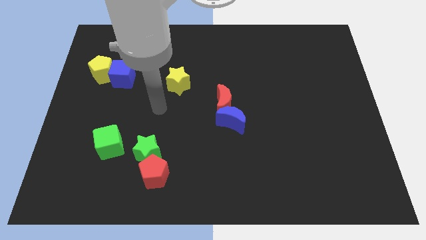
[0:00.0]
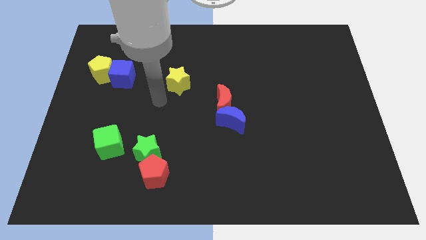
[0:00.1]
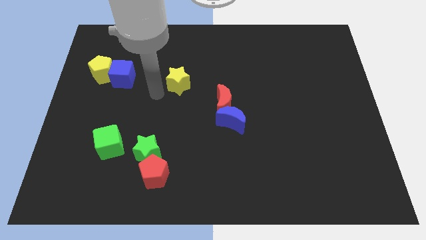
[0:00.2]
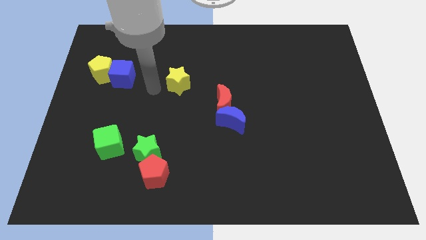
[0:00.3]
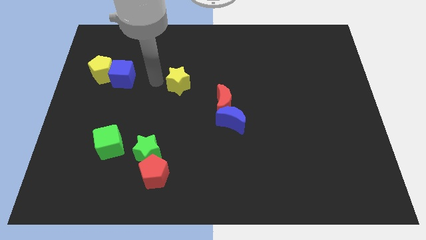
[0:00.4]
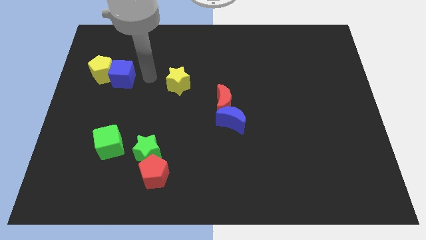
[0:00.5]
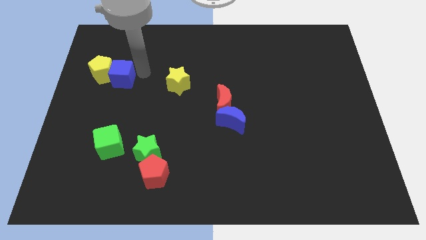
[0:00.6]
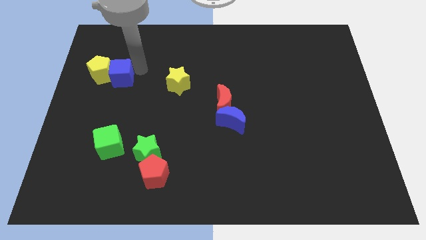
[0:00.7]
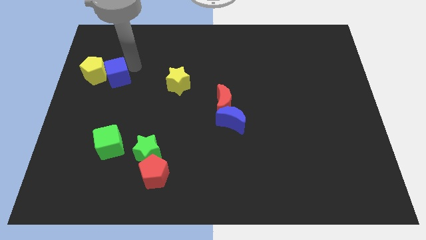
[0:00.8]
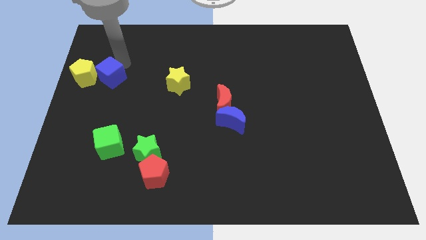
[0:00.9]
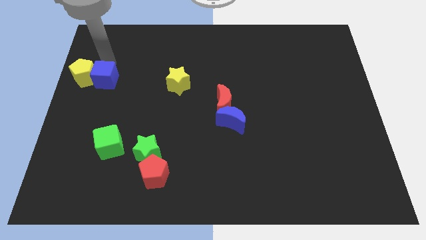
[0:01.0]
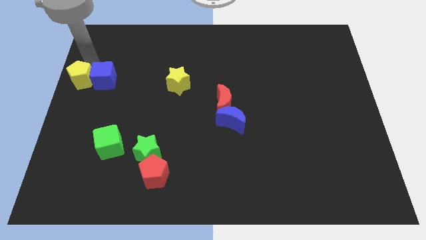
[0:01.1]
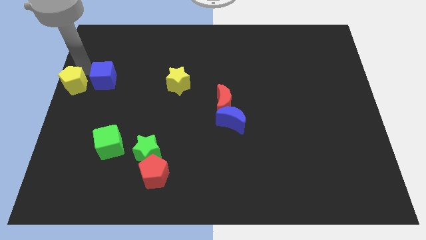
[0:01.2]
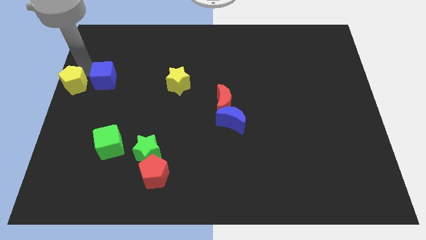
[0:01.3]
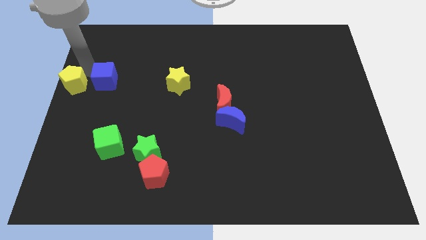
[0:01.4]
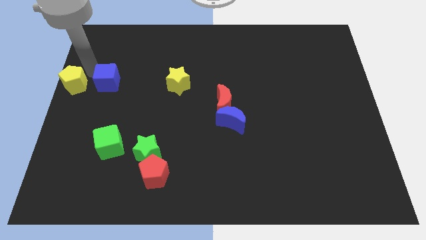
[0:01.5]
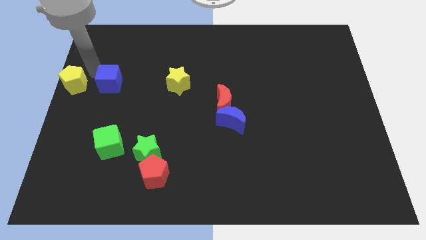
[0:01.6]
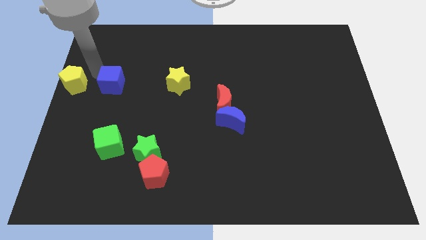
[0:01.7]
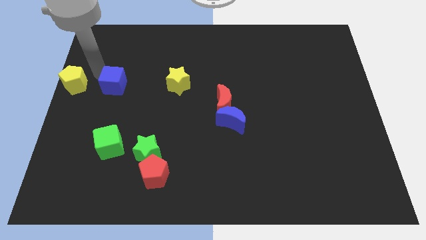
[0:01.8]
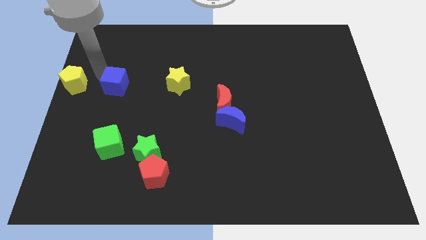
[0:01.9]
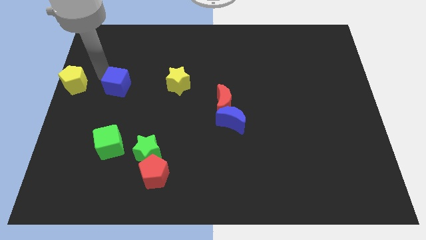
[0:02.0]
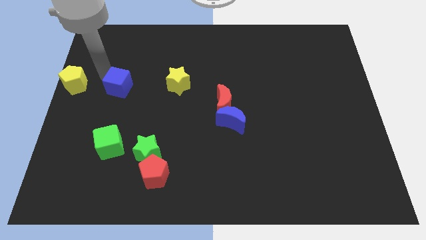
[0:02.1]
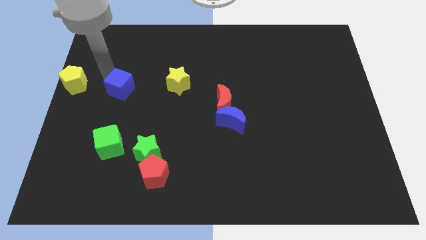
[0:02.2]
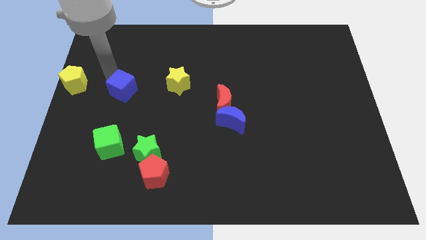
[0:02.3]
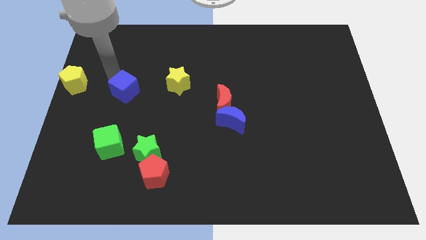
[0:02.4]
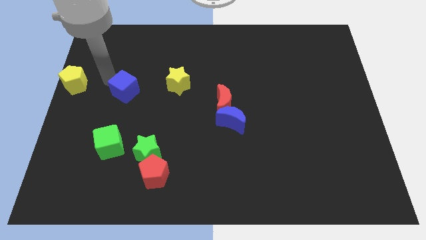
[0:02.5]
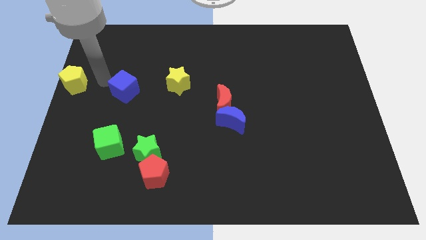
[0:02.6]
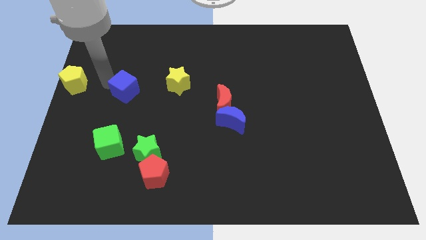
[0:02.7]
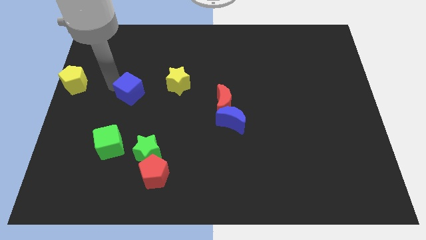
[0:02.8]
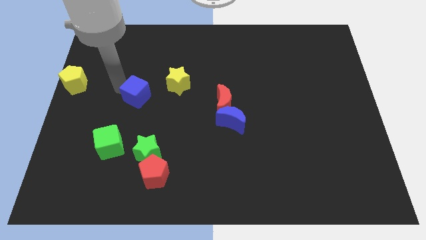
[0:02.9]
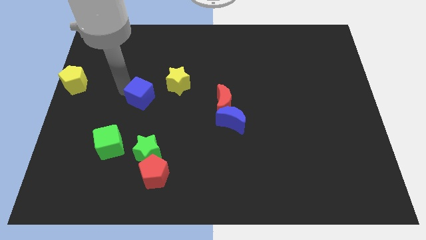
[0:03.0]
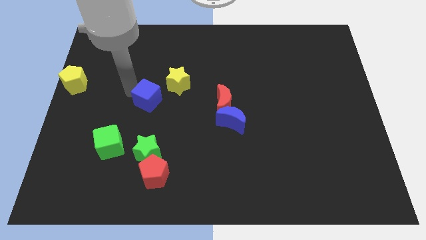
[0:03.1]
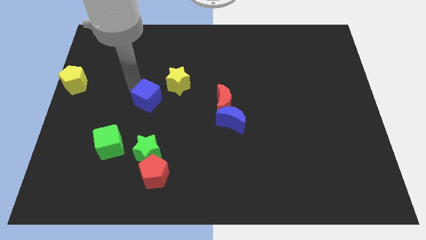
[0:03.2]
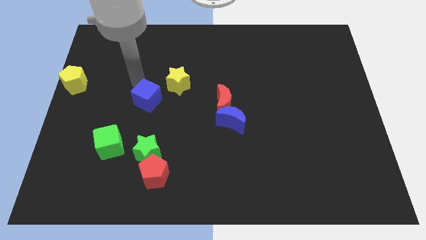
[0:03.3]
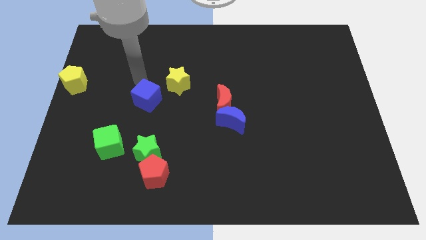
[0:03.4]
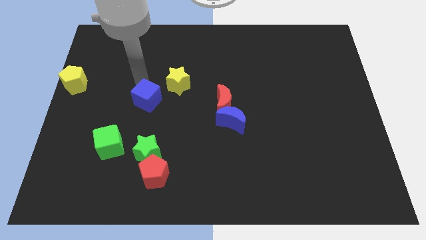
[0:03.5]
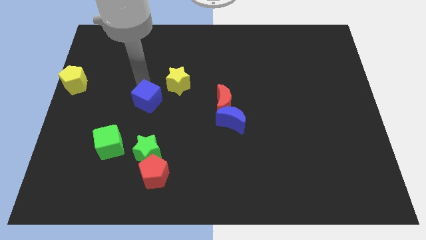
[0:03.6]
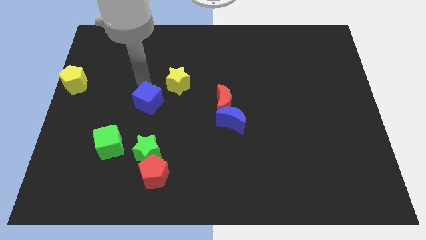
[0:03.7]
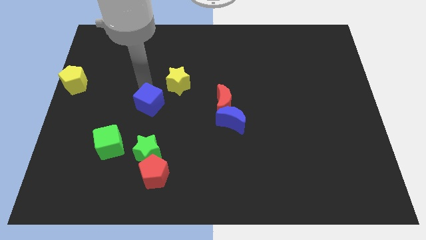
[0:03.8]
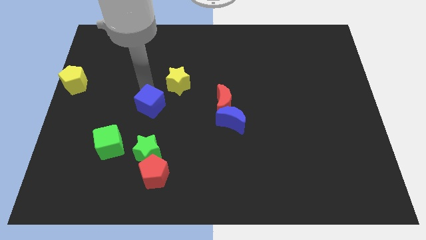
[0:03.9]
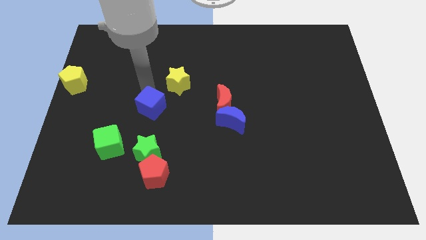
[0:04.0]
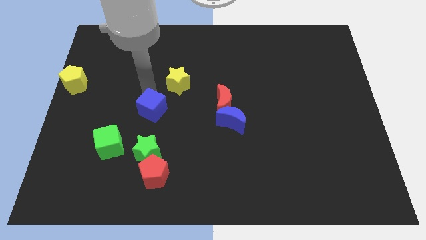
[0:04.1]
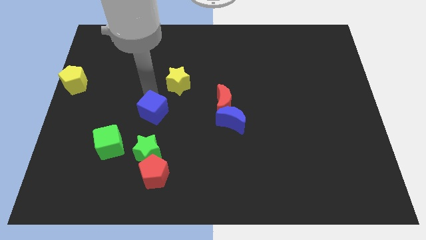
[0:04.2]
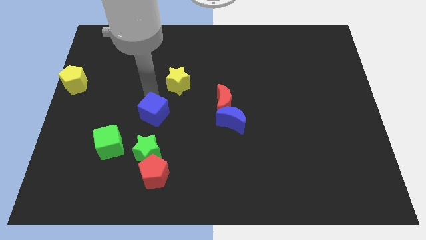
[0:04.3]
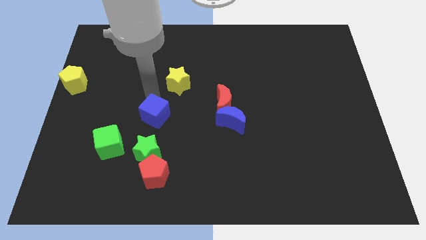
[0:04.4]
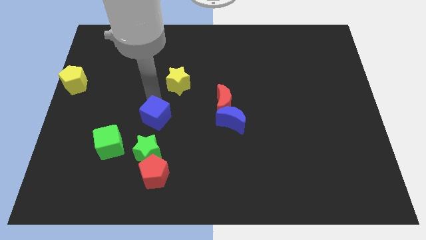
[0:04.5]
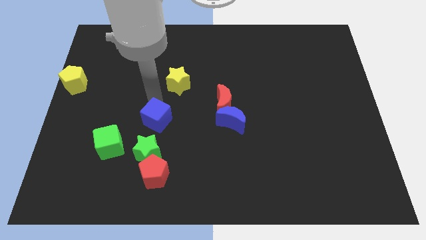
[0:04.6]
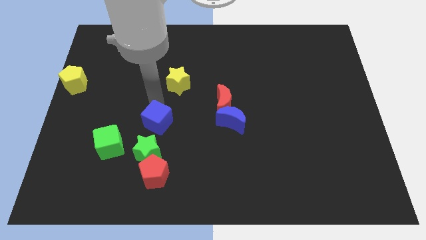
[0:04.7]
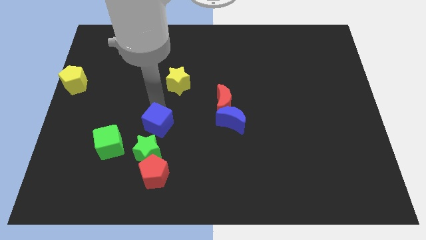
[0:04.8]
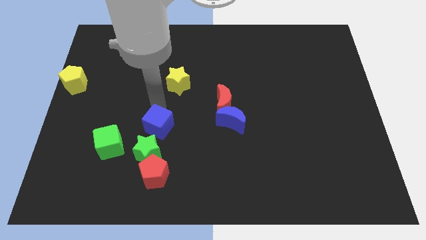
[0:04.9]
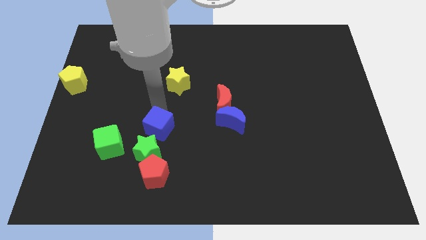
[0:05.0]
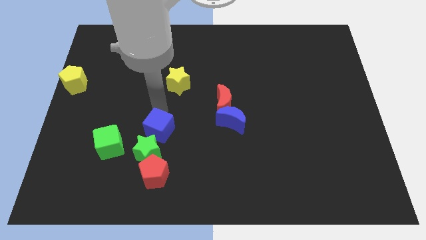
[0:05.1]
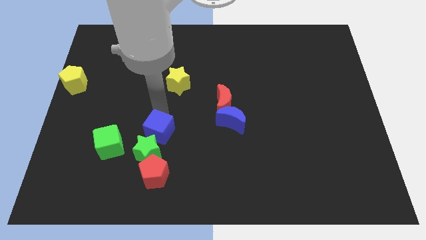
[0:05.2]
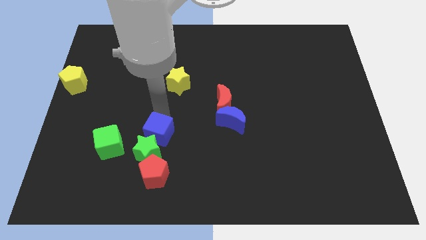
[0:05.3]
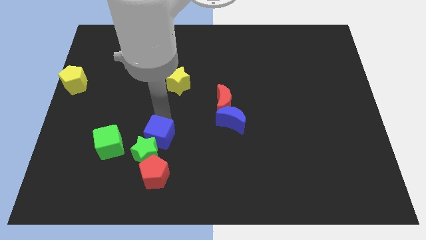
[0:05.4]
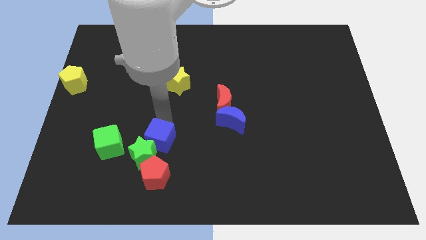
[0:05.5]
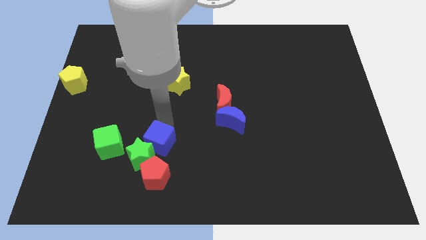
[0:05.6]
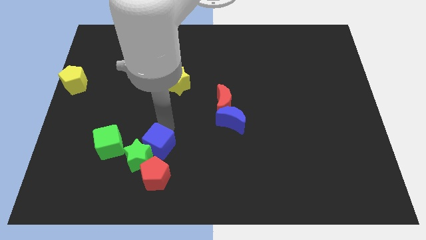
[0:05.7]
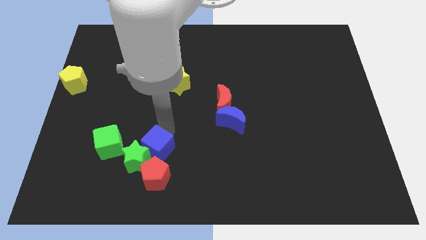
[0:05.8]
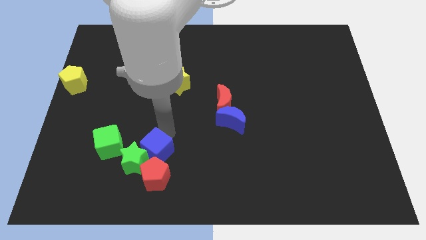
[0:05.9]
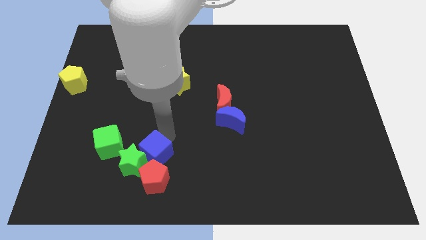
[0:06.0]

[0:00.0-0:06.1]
slide the blue cube close to the red pentagon
